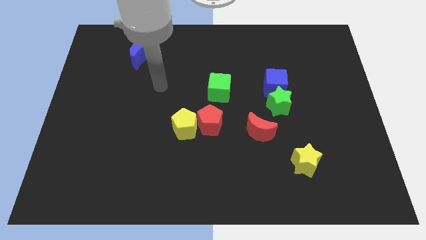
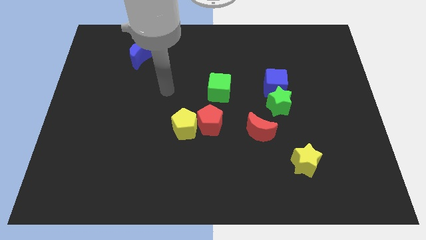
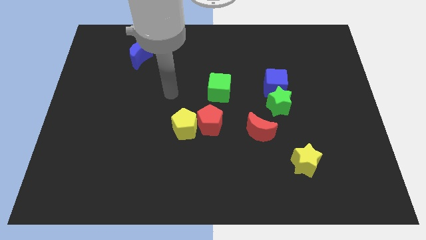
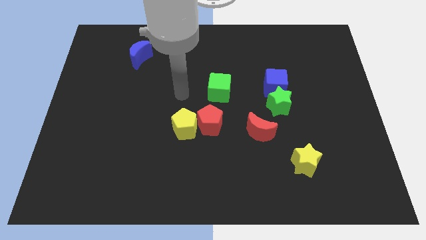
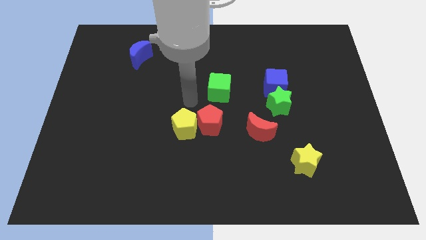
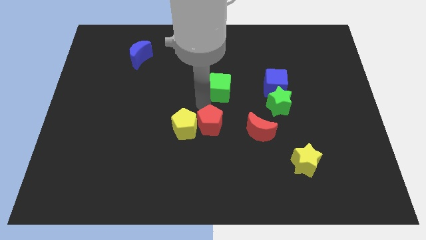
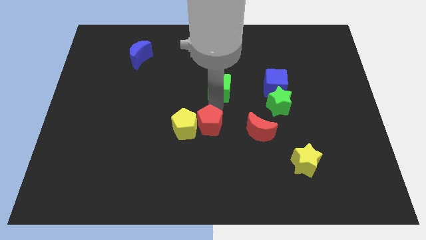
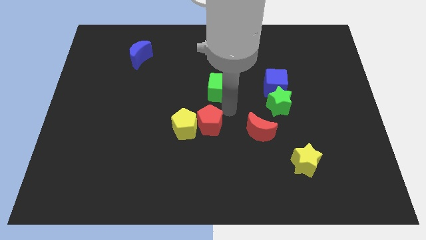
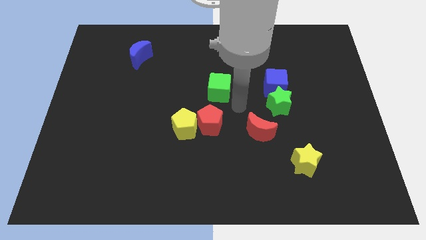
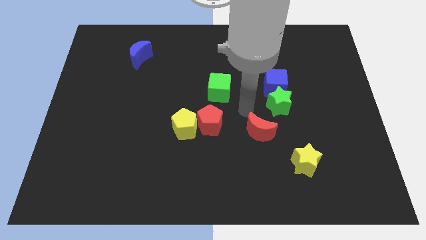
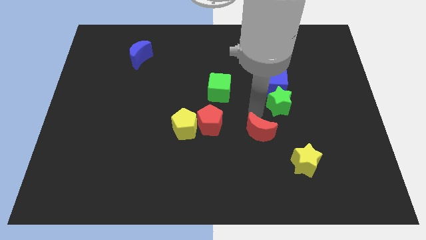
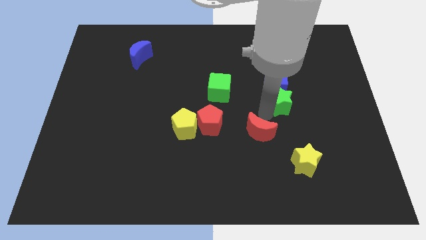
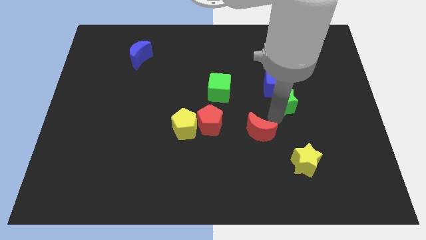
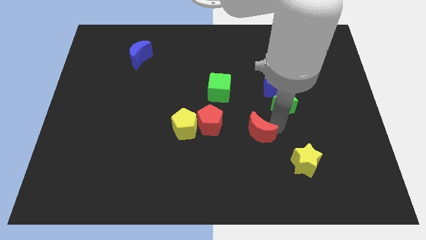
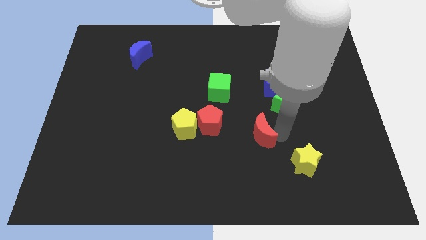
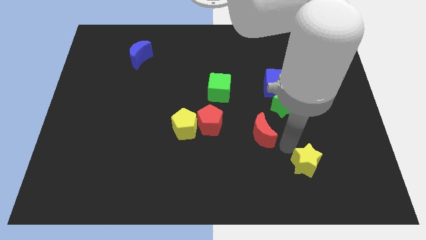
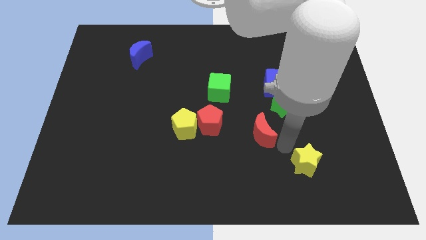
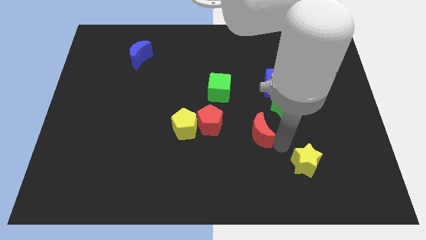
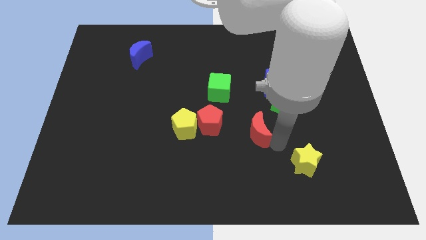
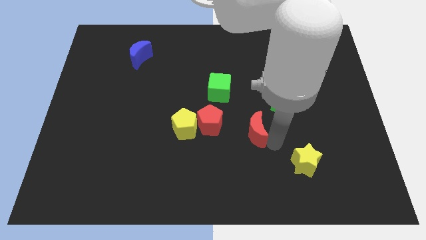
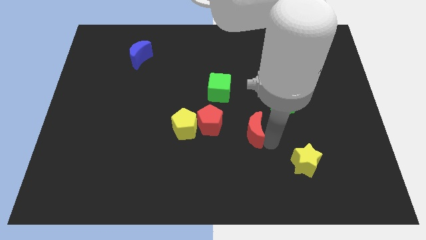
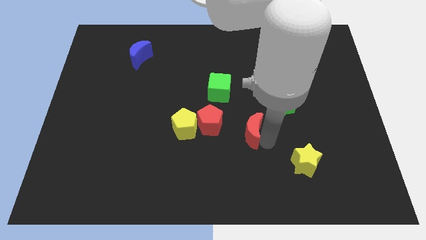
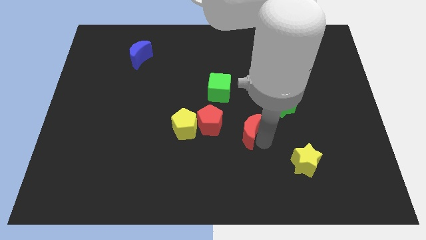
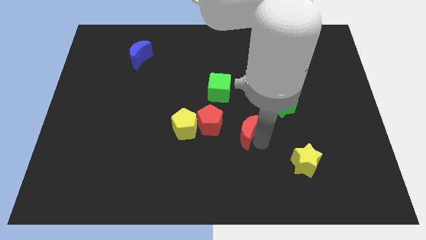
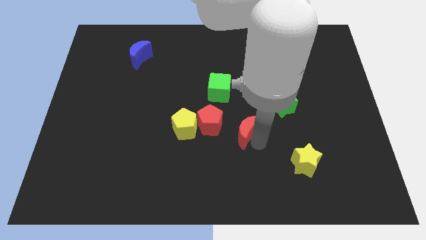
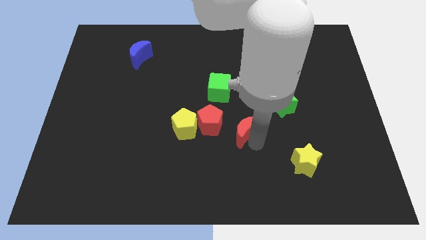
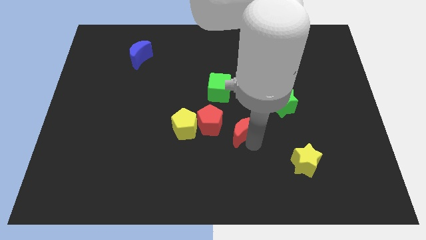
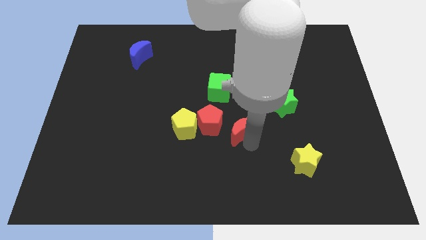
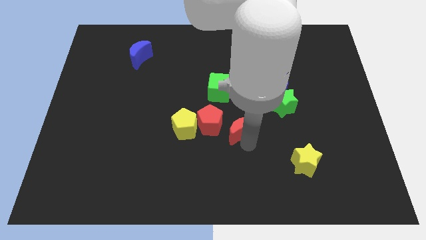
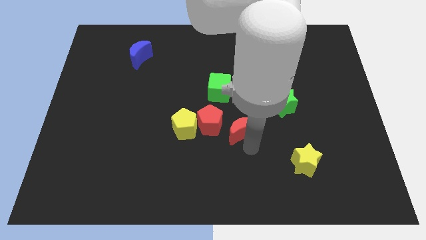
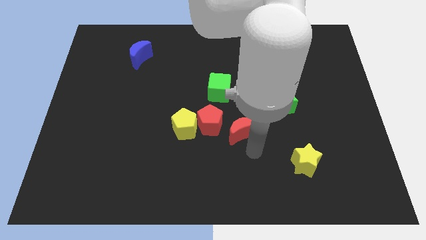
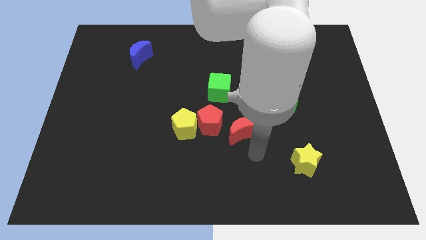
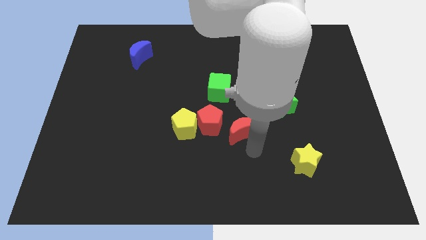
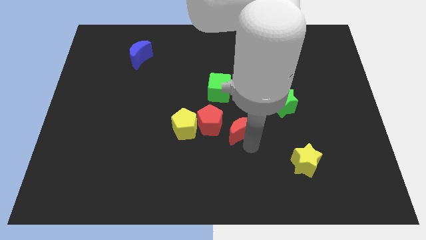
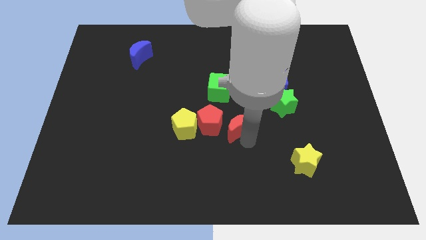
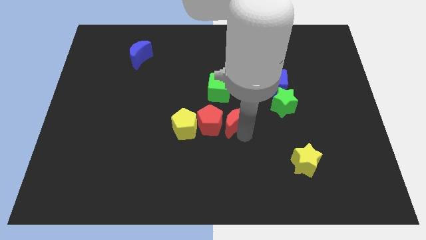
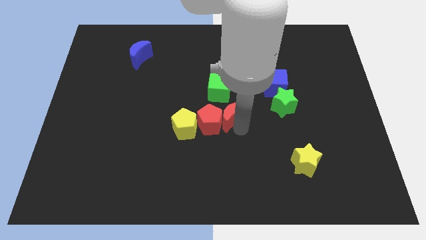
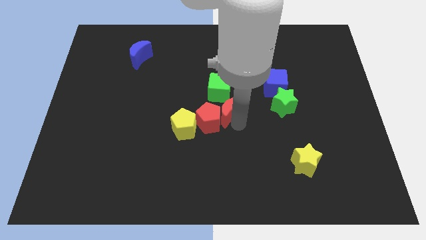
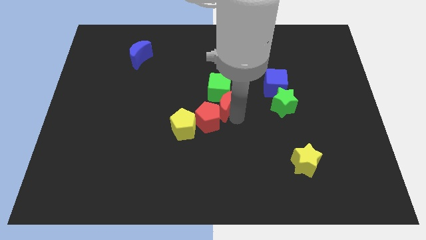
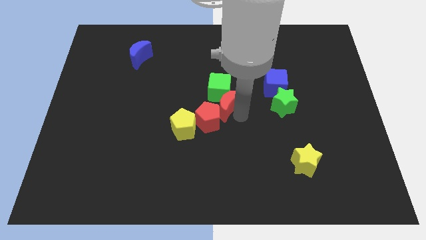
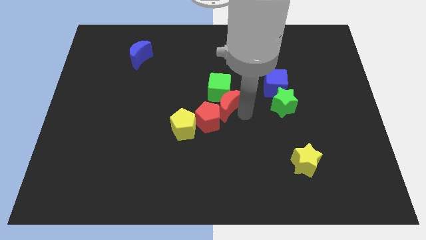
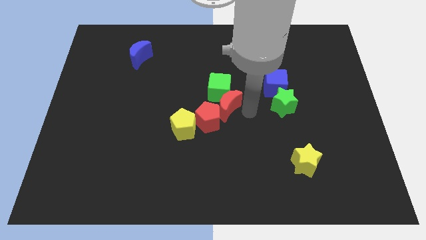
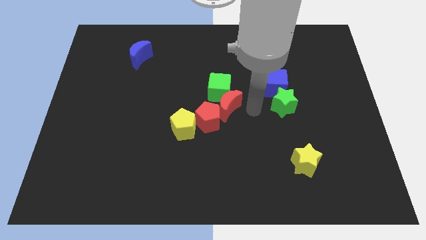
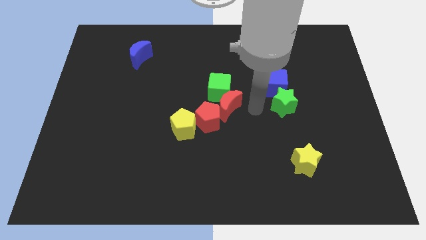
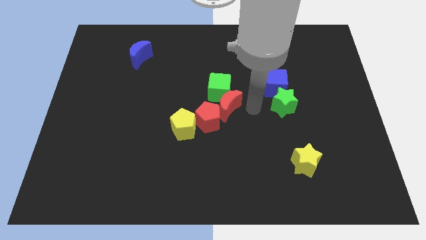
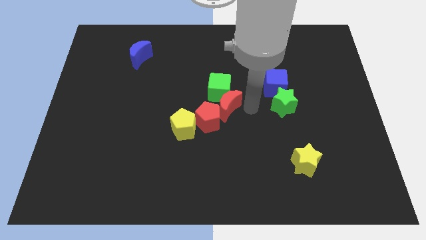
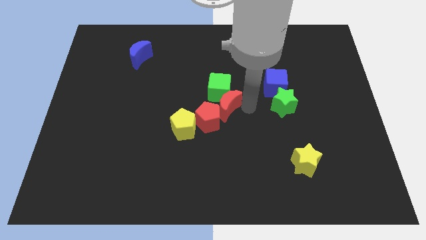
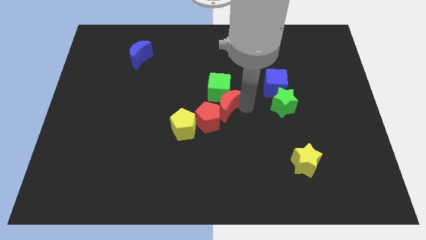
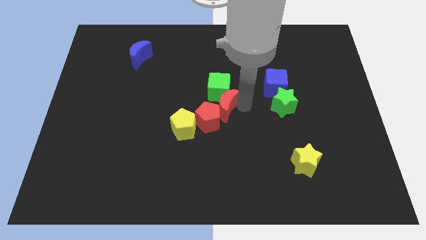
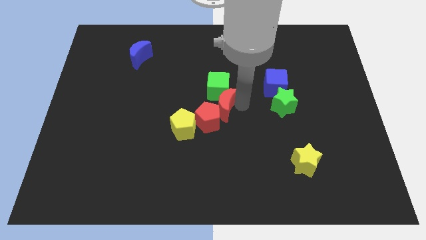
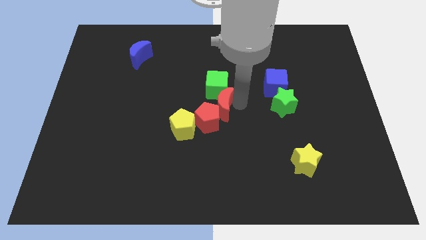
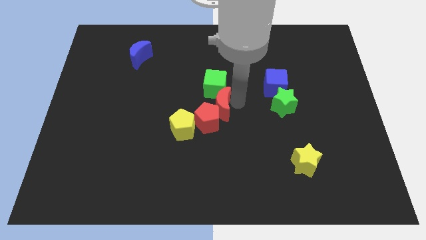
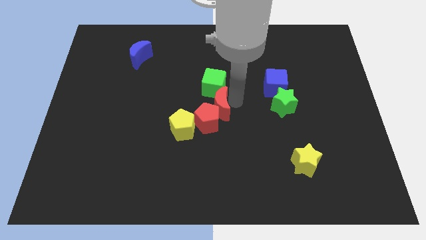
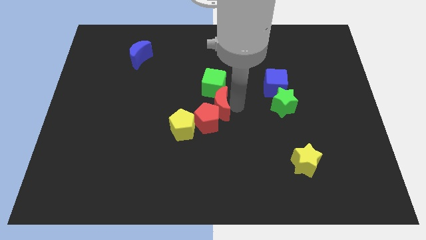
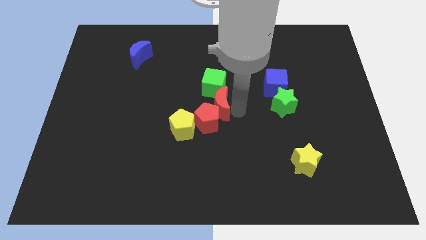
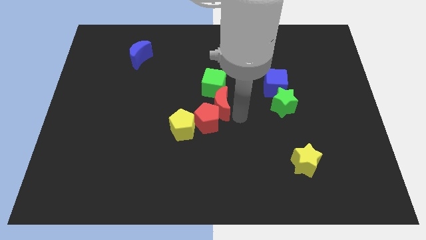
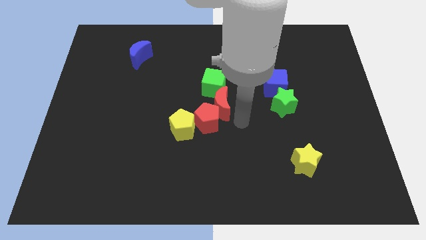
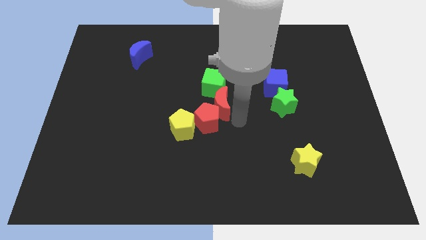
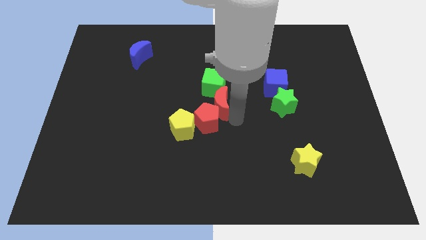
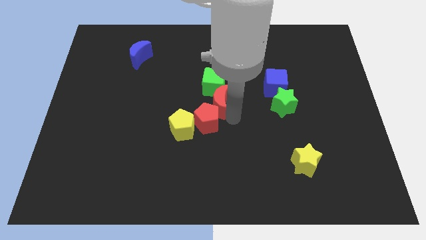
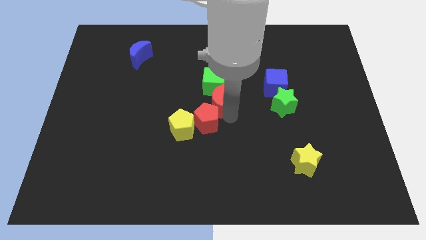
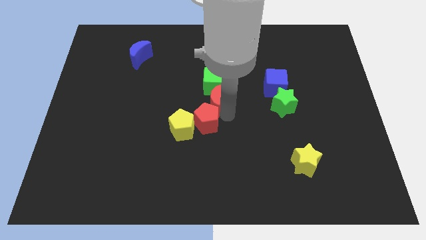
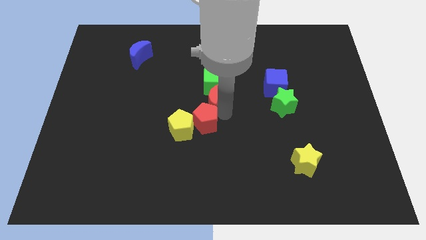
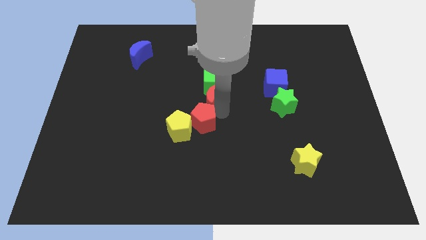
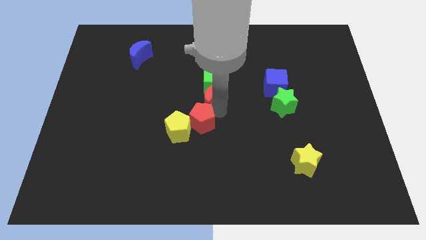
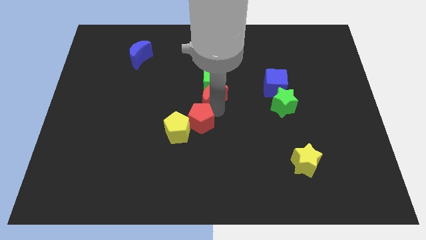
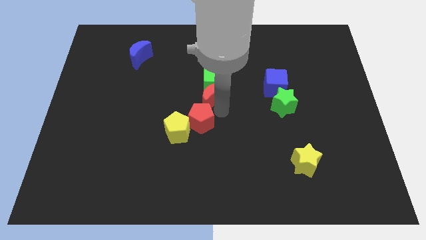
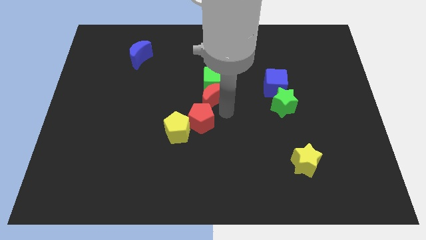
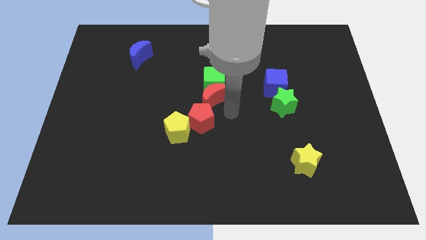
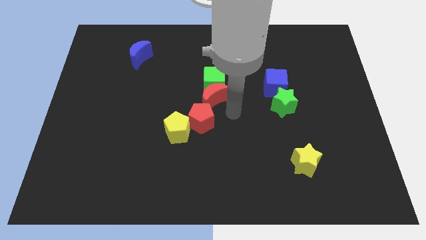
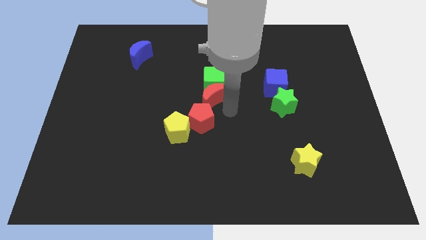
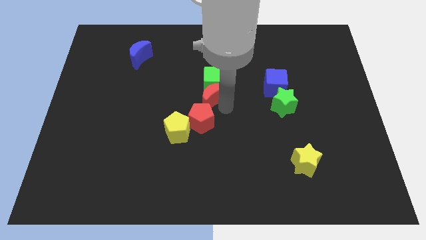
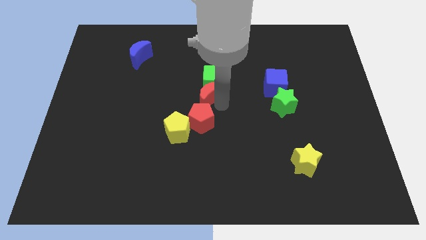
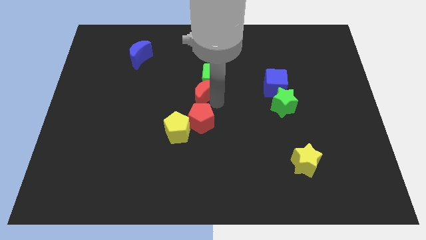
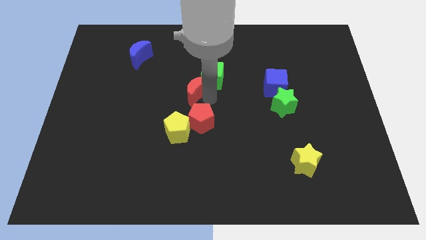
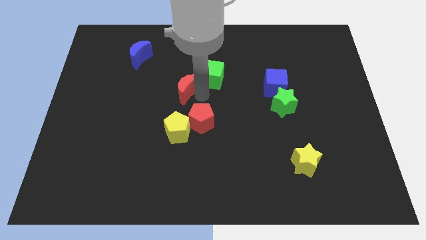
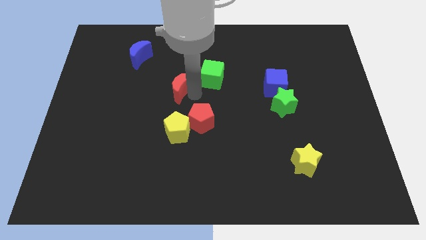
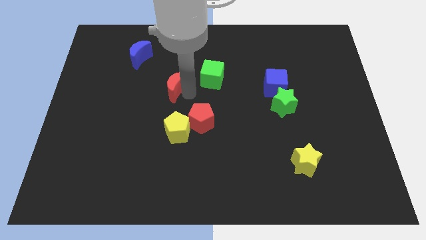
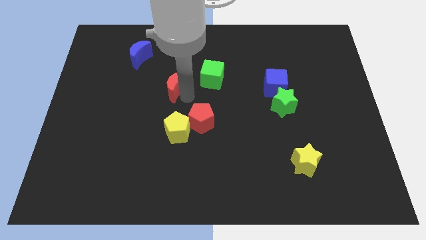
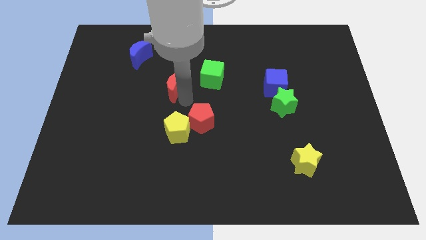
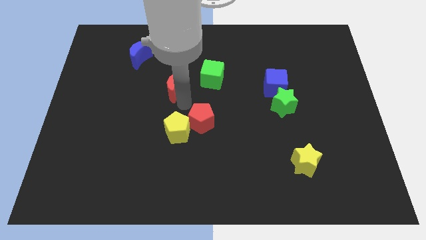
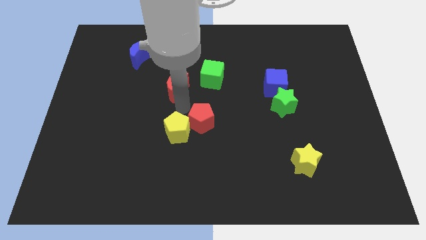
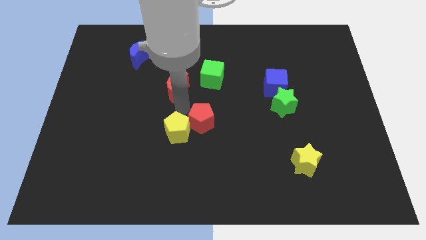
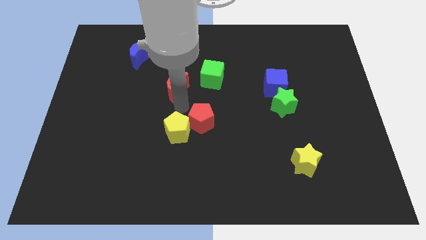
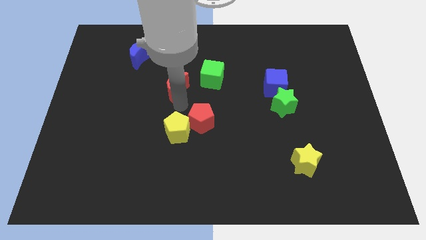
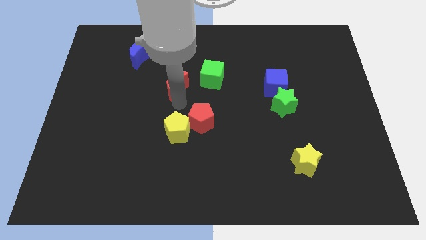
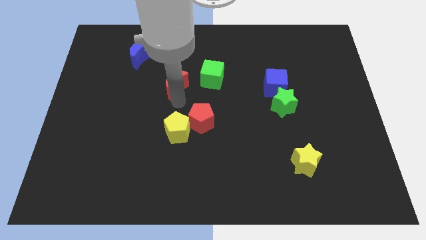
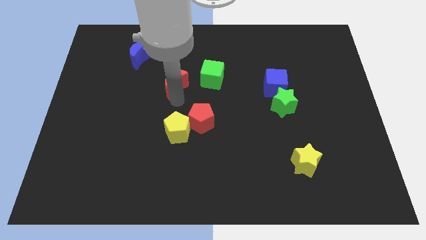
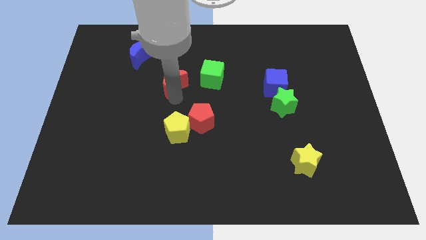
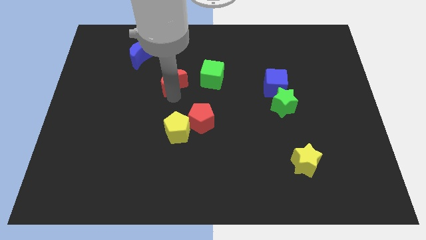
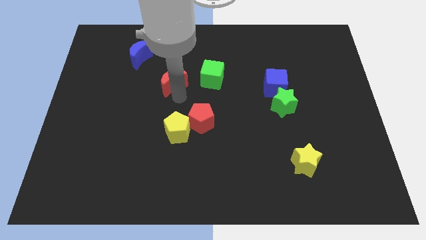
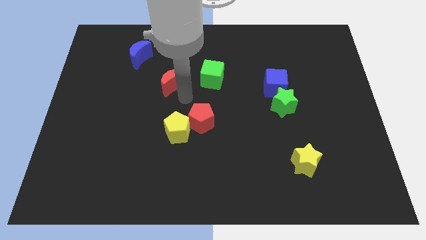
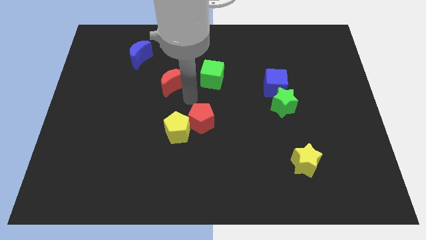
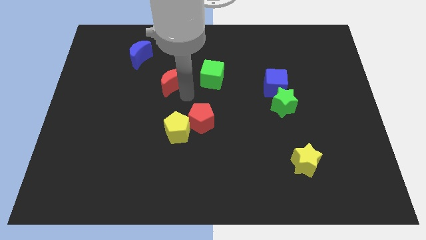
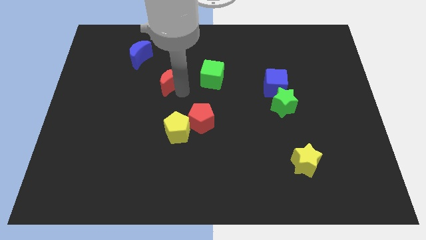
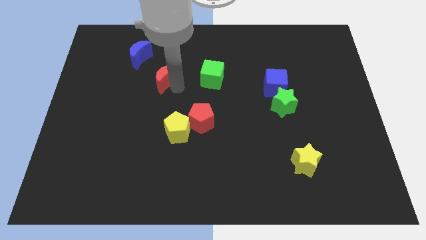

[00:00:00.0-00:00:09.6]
slide the red moon diagonally down and to the right of the blue moon
